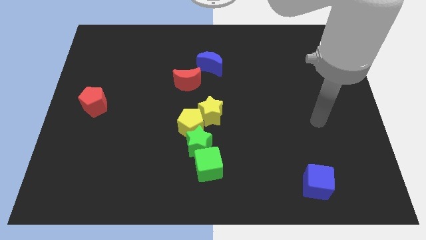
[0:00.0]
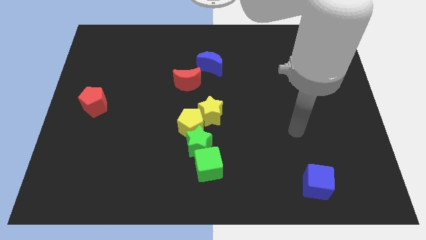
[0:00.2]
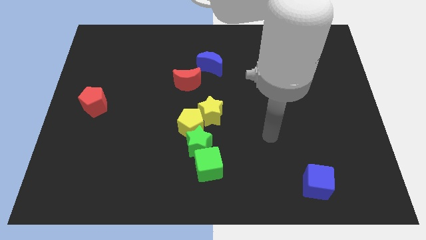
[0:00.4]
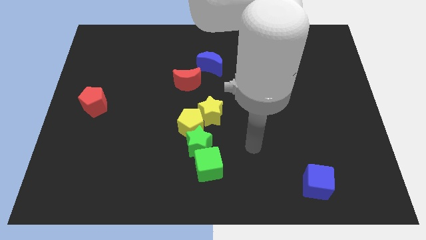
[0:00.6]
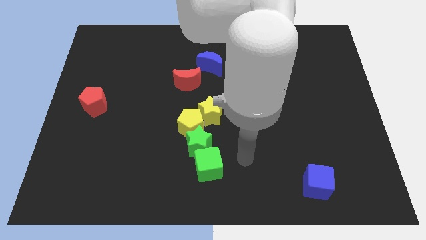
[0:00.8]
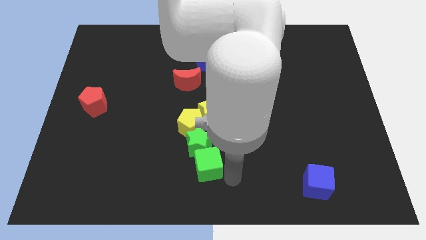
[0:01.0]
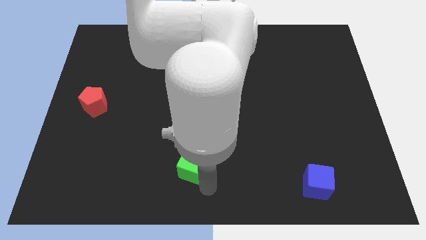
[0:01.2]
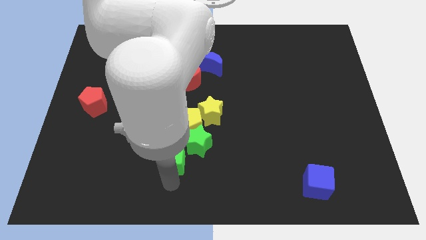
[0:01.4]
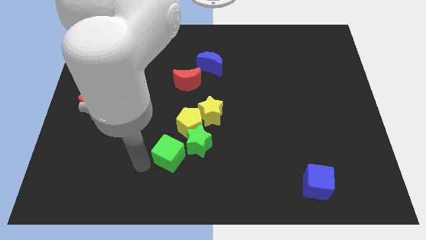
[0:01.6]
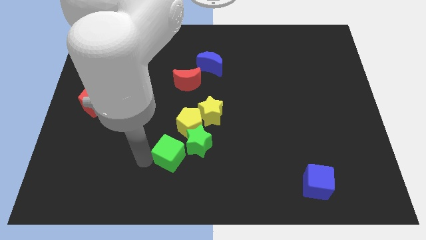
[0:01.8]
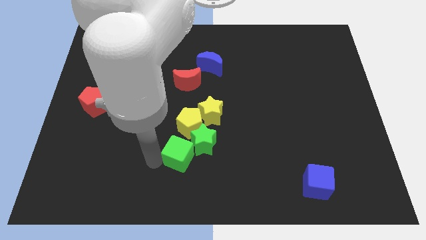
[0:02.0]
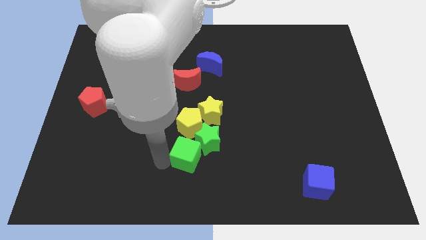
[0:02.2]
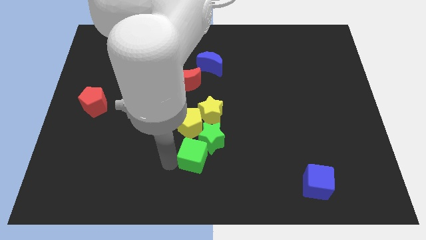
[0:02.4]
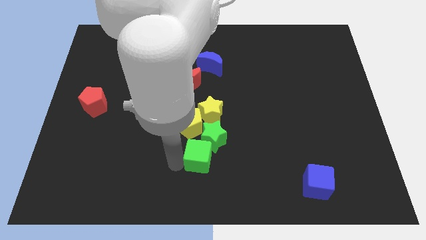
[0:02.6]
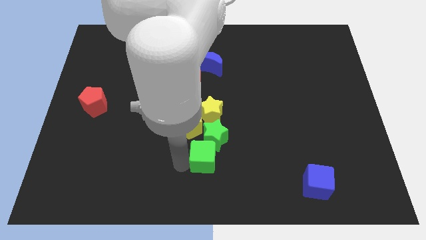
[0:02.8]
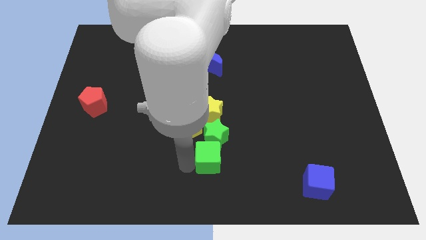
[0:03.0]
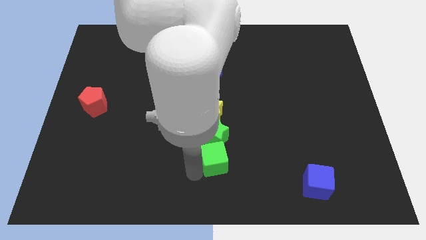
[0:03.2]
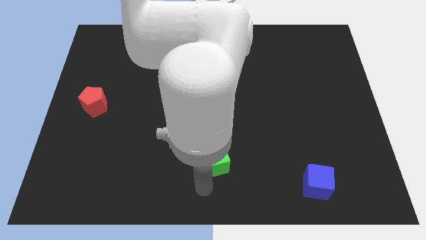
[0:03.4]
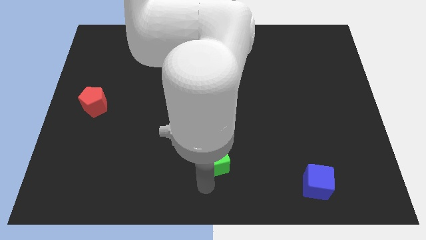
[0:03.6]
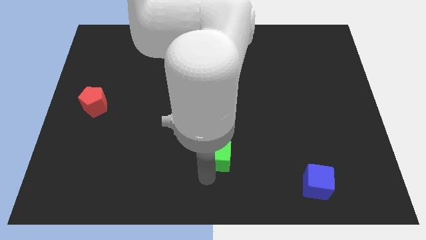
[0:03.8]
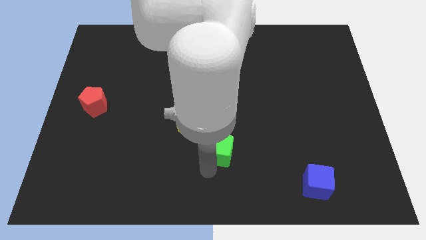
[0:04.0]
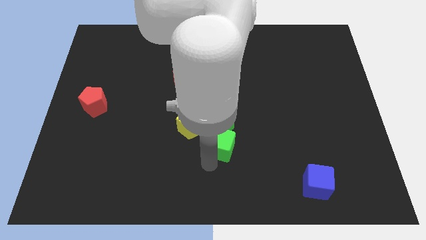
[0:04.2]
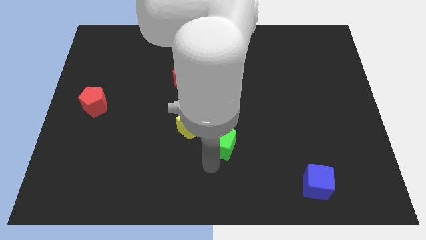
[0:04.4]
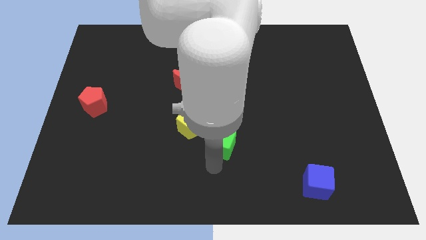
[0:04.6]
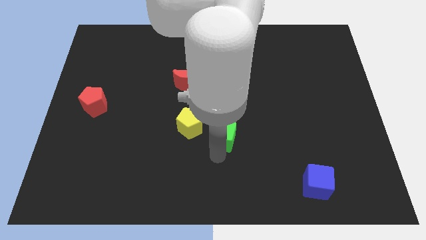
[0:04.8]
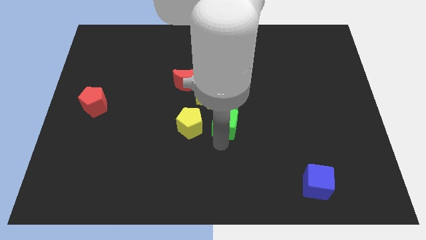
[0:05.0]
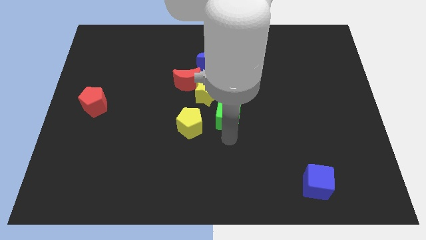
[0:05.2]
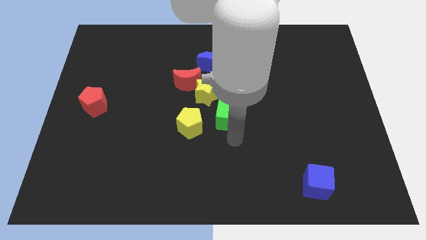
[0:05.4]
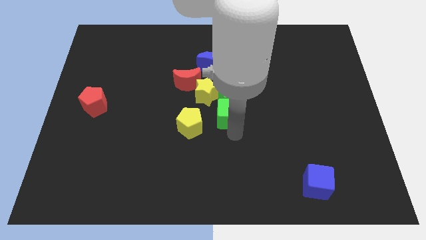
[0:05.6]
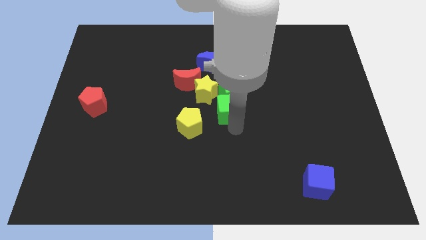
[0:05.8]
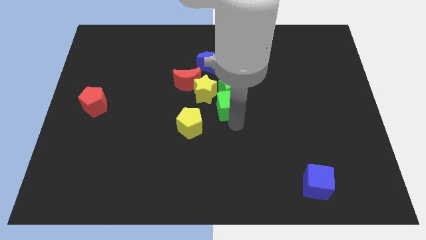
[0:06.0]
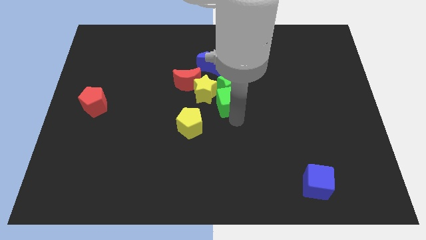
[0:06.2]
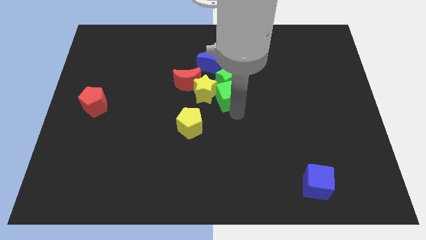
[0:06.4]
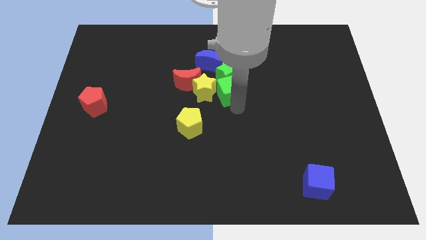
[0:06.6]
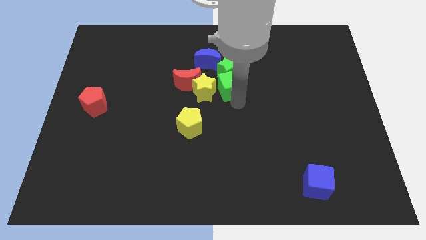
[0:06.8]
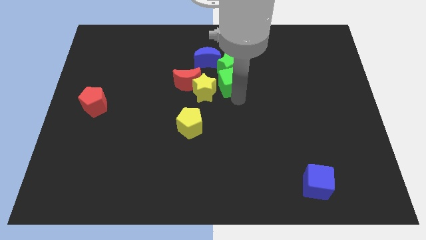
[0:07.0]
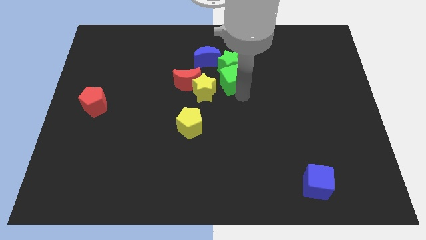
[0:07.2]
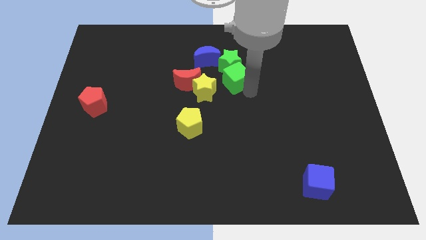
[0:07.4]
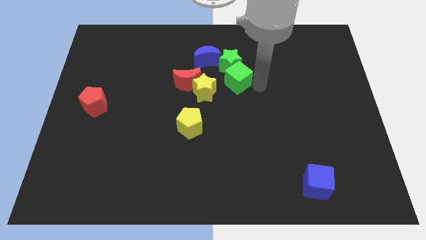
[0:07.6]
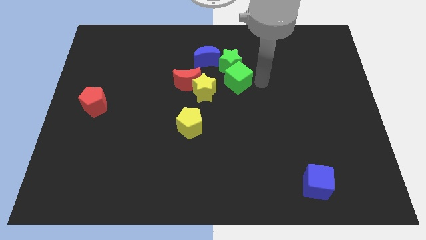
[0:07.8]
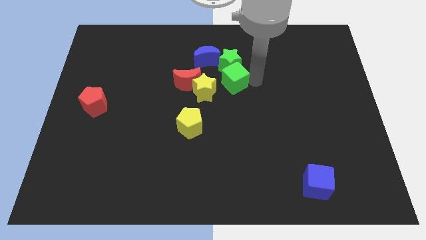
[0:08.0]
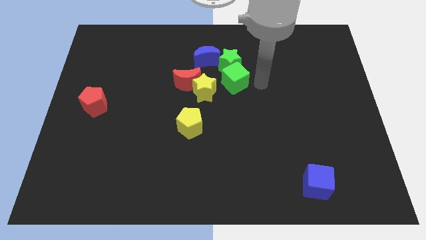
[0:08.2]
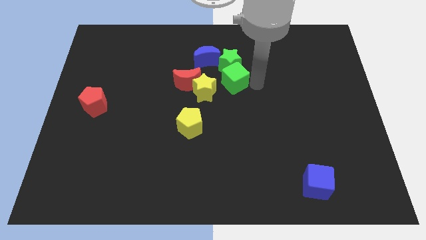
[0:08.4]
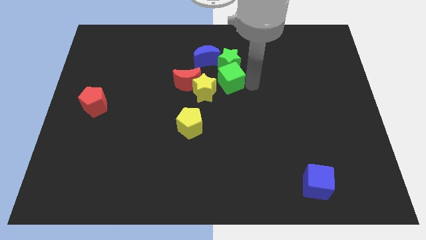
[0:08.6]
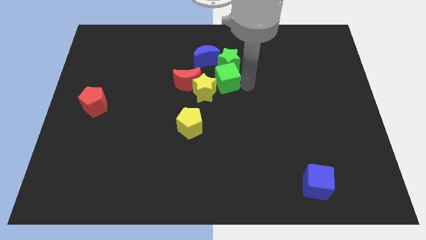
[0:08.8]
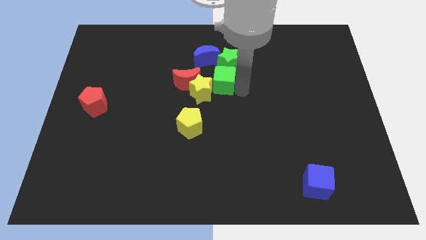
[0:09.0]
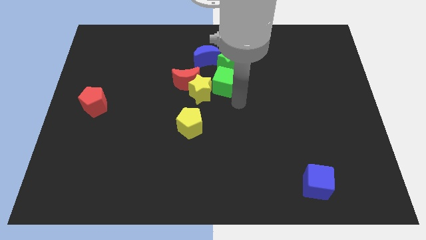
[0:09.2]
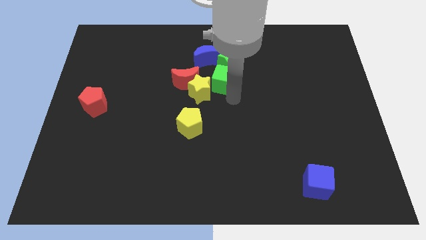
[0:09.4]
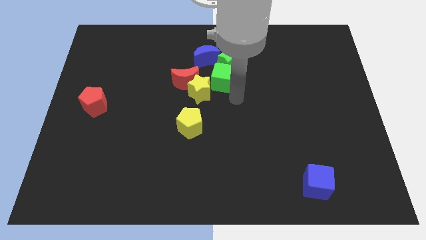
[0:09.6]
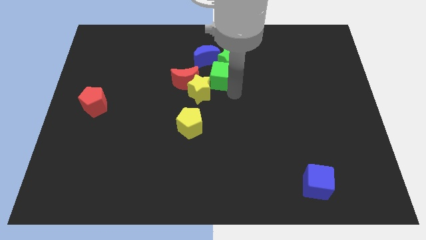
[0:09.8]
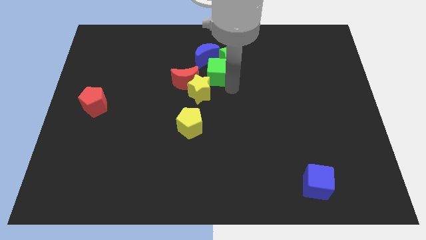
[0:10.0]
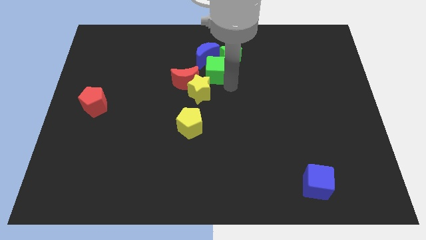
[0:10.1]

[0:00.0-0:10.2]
put the green cube close to the blue moon

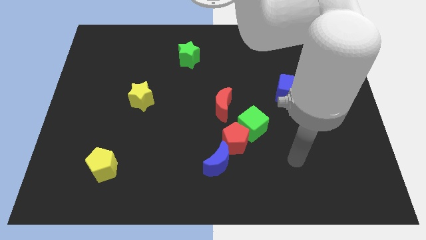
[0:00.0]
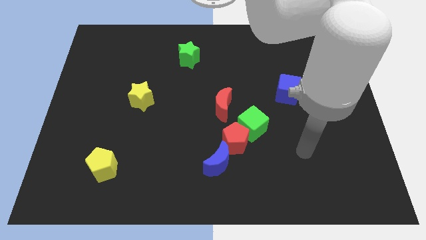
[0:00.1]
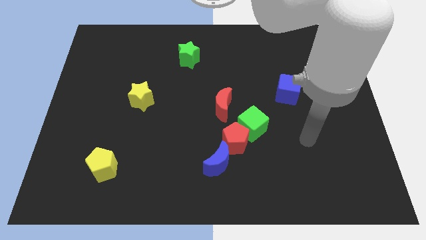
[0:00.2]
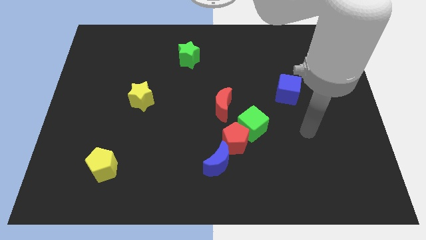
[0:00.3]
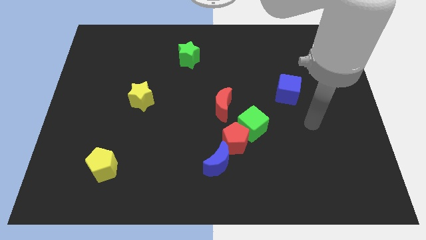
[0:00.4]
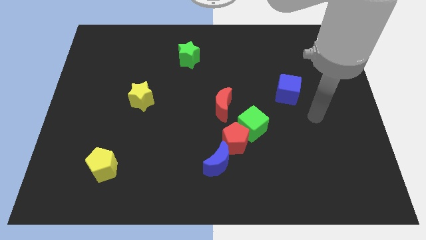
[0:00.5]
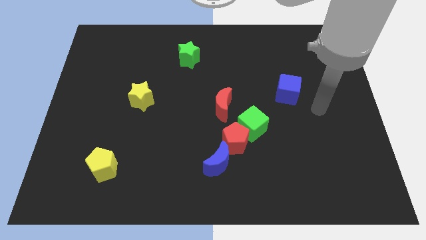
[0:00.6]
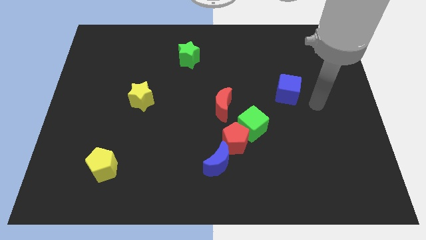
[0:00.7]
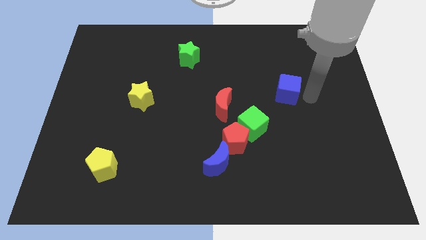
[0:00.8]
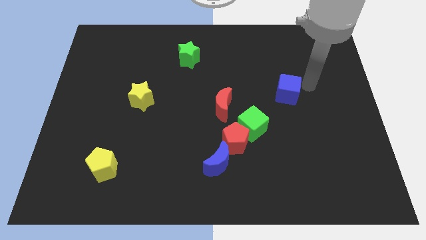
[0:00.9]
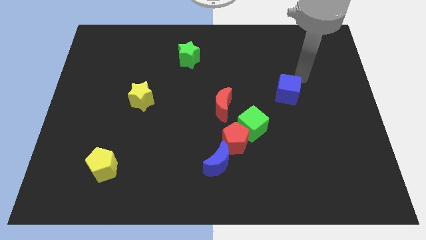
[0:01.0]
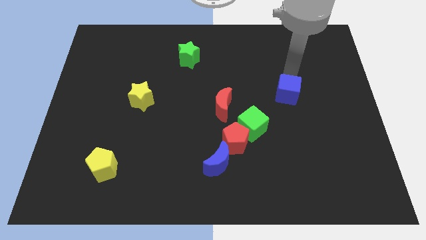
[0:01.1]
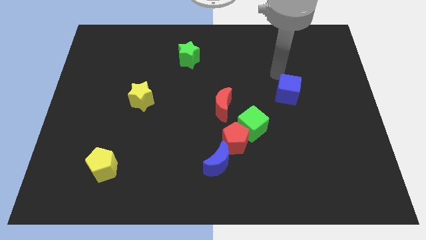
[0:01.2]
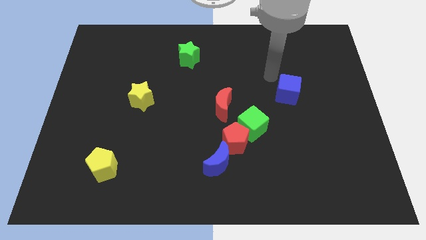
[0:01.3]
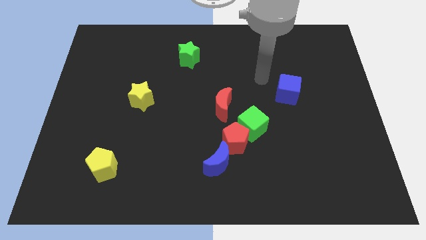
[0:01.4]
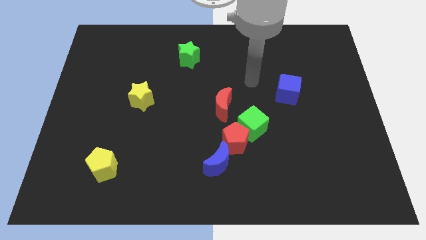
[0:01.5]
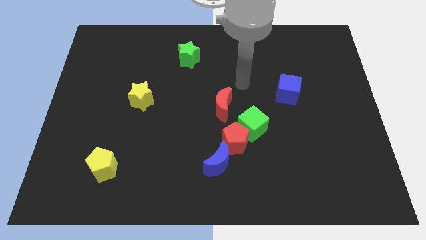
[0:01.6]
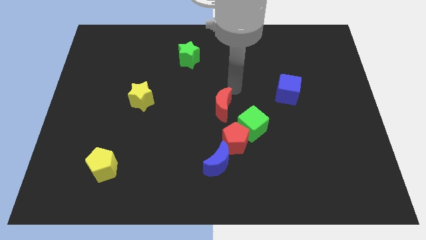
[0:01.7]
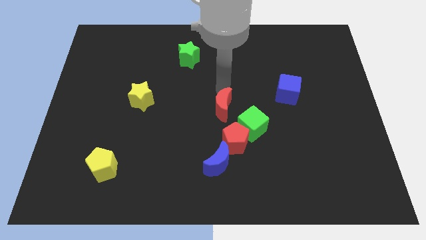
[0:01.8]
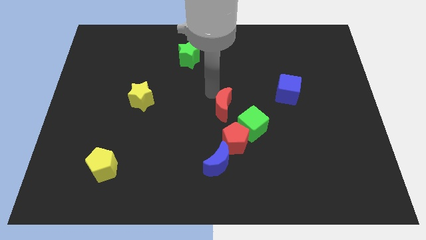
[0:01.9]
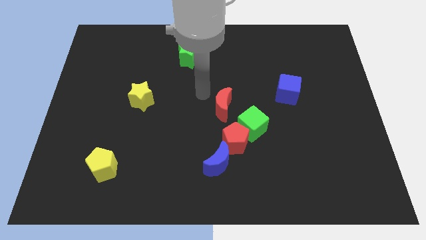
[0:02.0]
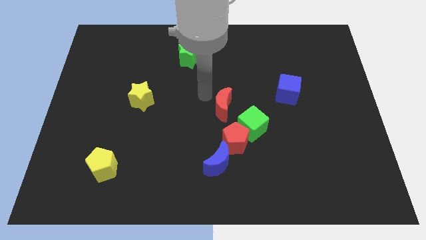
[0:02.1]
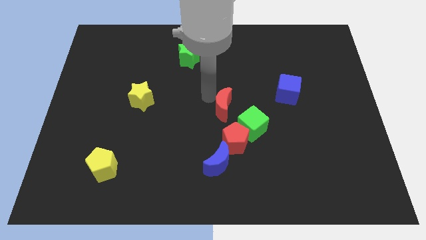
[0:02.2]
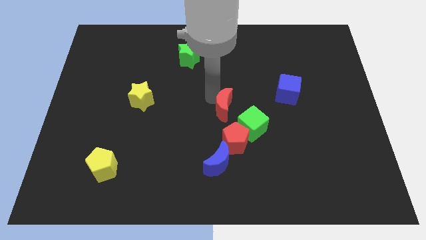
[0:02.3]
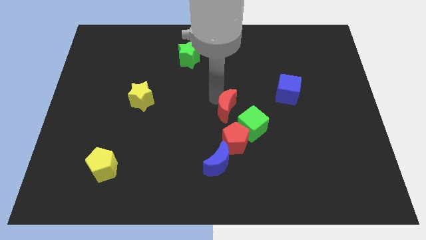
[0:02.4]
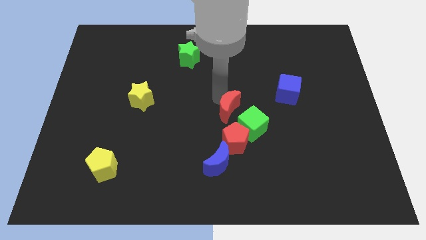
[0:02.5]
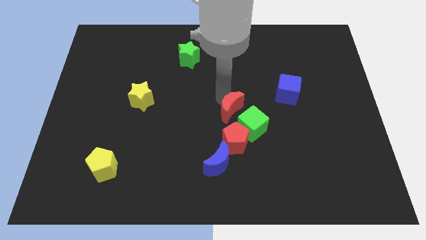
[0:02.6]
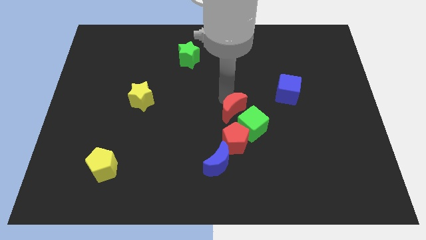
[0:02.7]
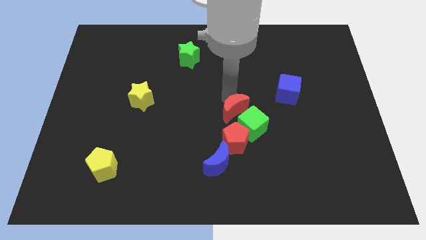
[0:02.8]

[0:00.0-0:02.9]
put the red moon next to the green cube
